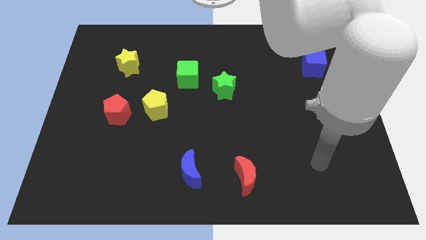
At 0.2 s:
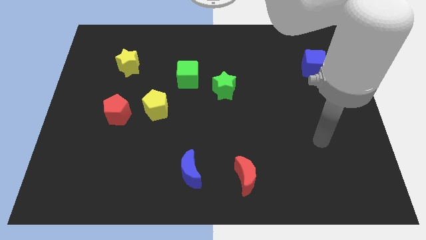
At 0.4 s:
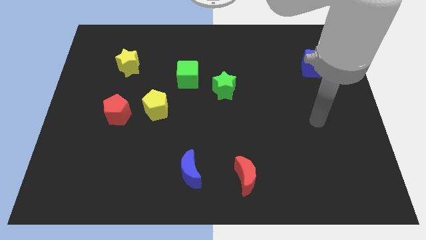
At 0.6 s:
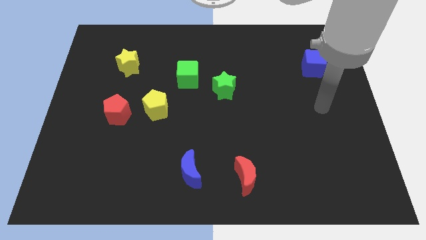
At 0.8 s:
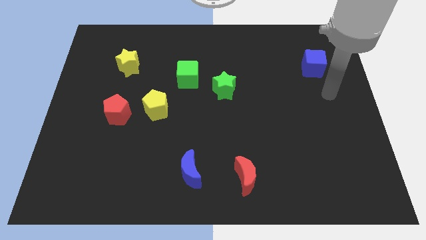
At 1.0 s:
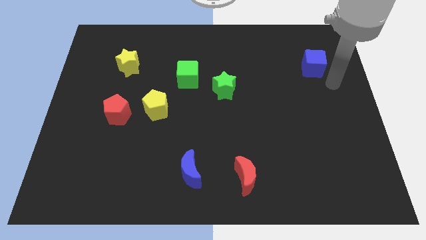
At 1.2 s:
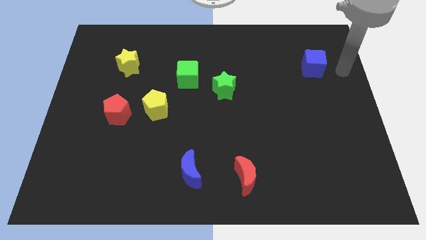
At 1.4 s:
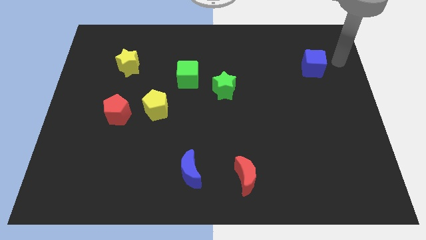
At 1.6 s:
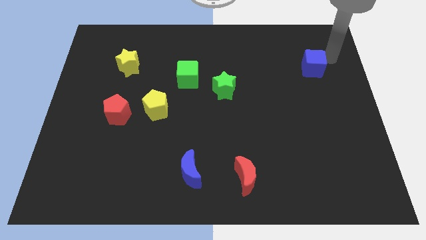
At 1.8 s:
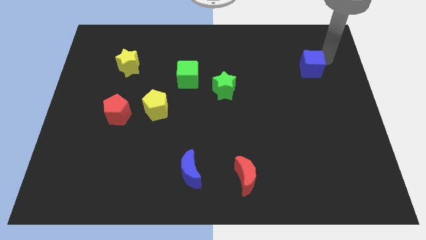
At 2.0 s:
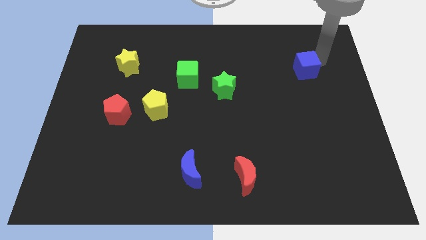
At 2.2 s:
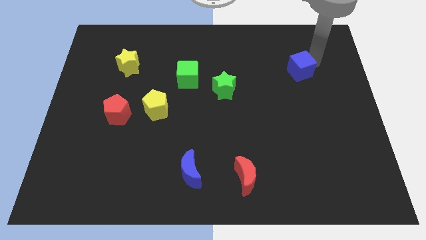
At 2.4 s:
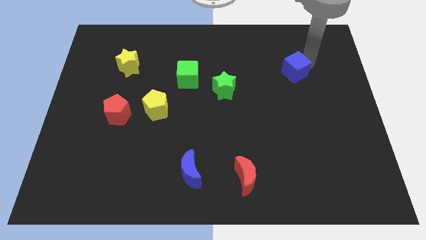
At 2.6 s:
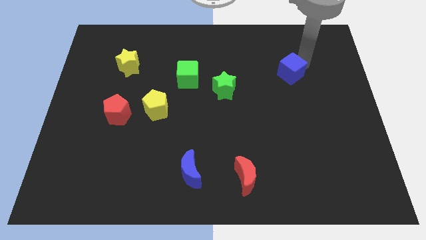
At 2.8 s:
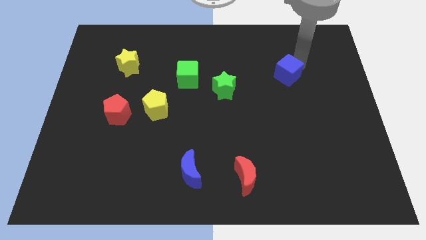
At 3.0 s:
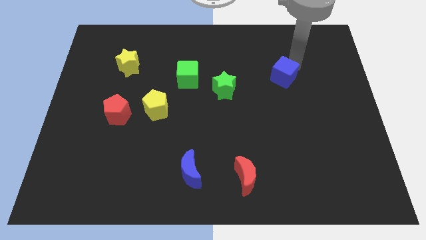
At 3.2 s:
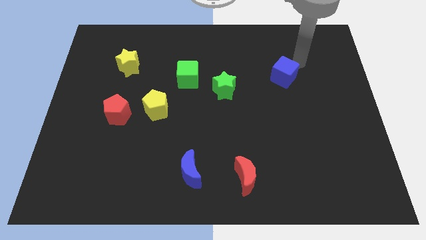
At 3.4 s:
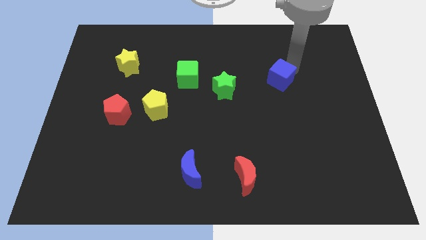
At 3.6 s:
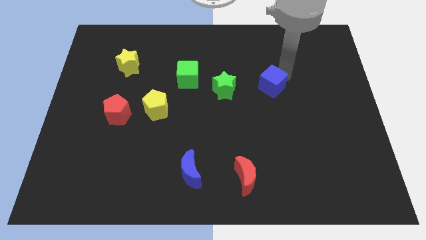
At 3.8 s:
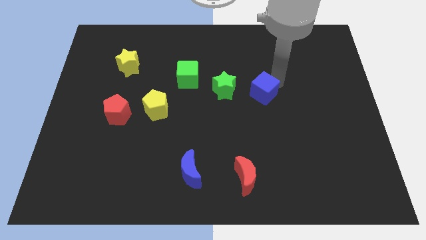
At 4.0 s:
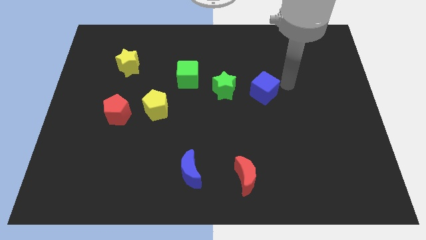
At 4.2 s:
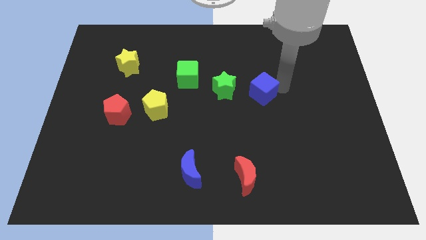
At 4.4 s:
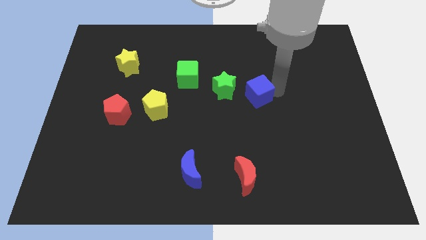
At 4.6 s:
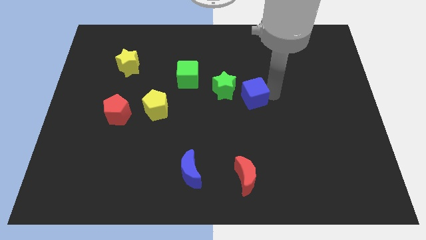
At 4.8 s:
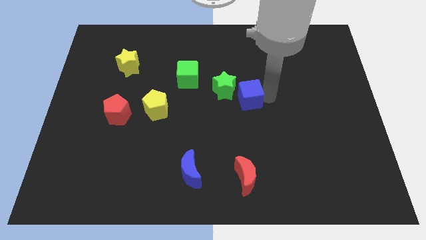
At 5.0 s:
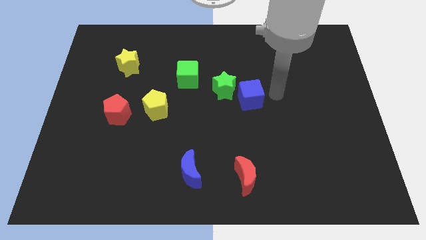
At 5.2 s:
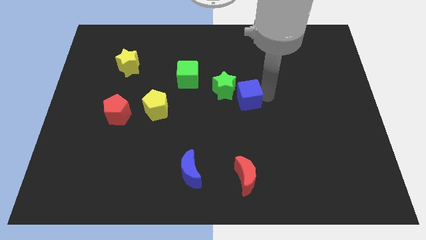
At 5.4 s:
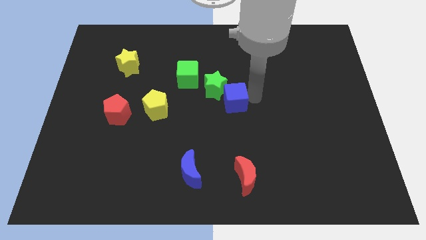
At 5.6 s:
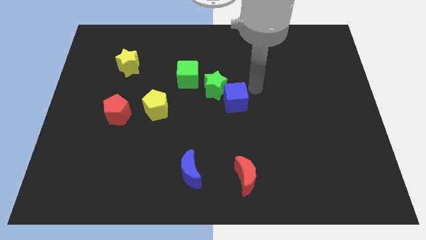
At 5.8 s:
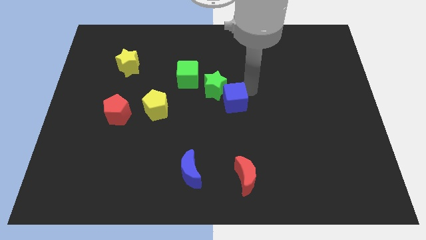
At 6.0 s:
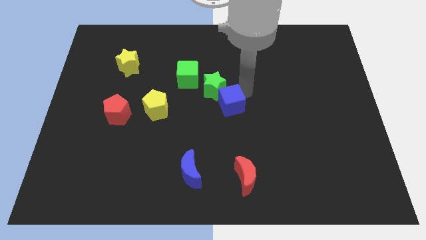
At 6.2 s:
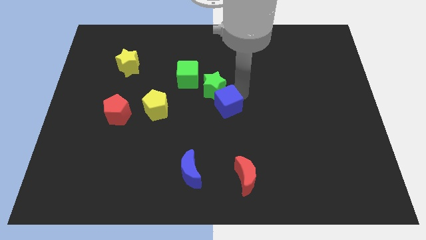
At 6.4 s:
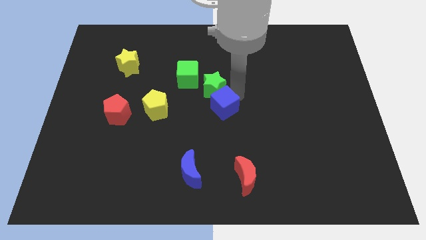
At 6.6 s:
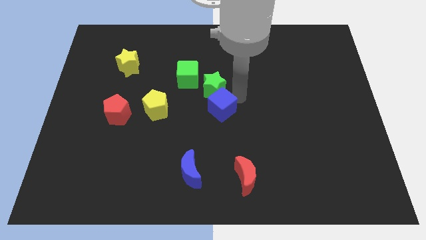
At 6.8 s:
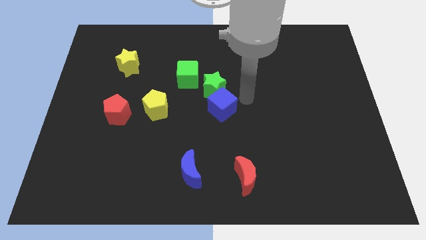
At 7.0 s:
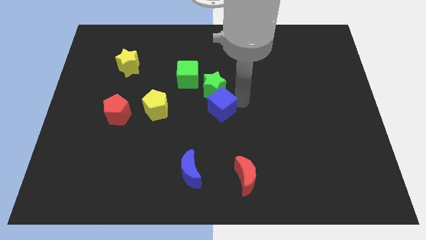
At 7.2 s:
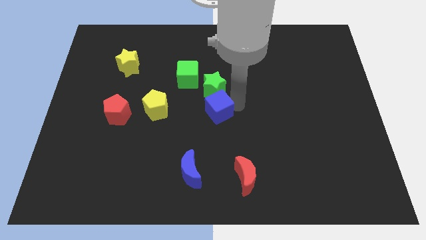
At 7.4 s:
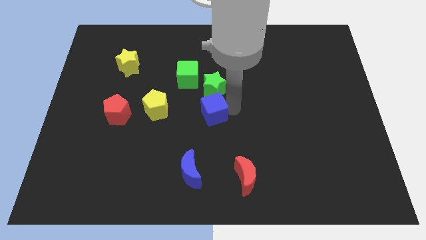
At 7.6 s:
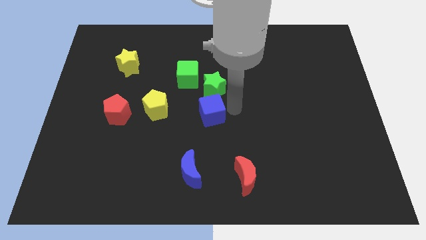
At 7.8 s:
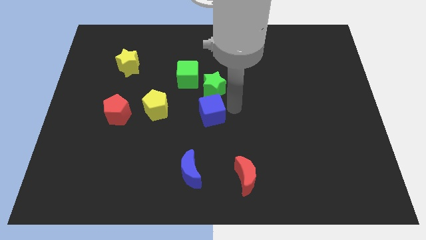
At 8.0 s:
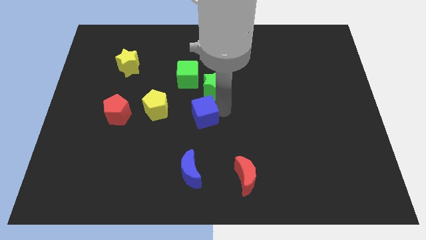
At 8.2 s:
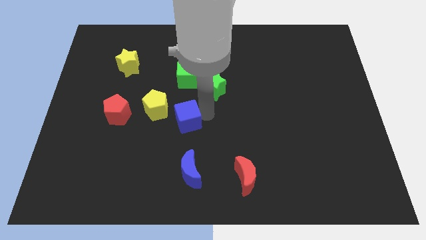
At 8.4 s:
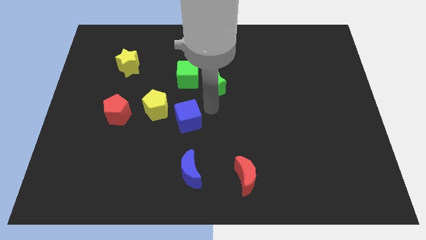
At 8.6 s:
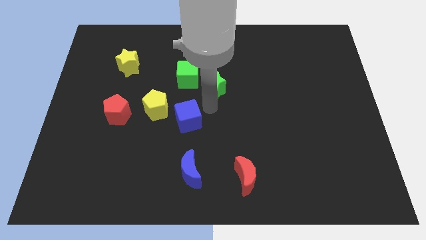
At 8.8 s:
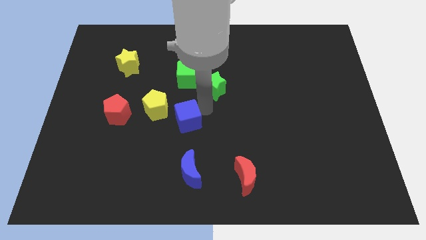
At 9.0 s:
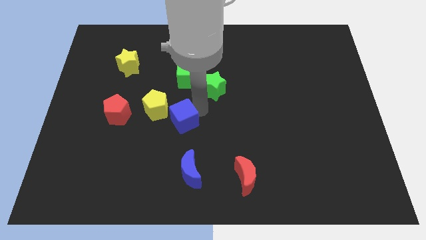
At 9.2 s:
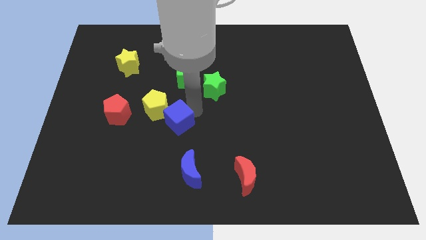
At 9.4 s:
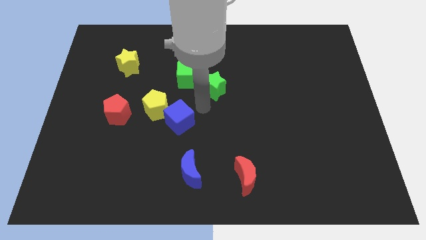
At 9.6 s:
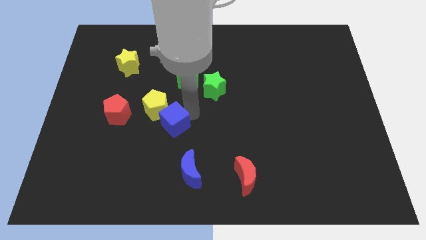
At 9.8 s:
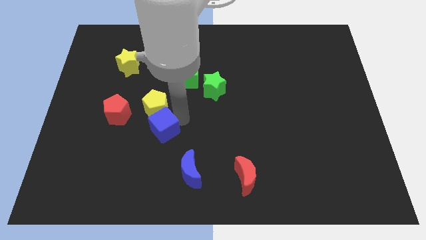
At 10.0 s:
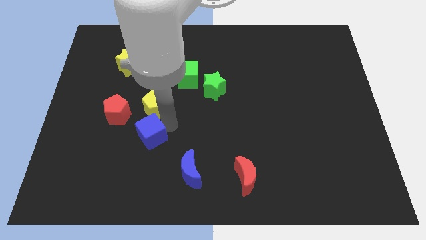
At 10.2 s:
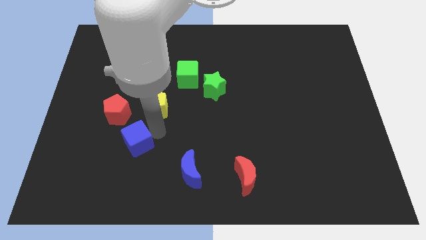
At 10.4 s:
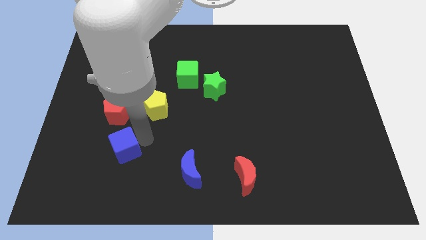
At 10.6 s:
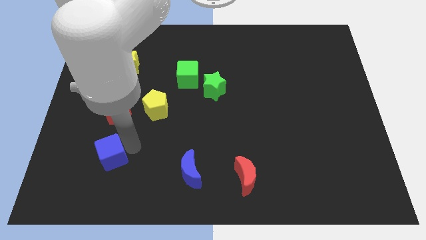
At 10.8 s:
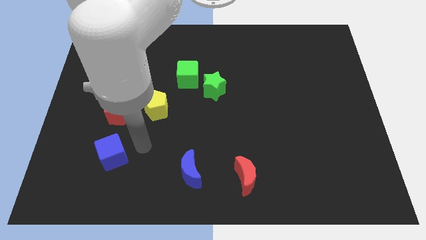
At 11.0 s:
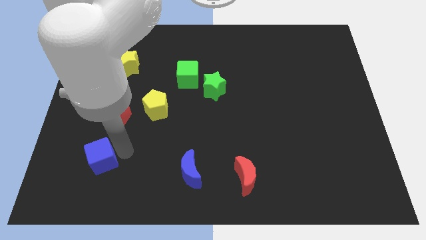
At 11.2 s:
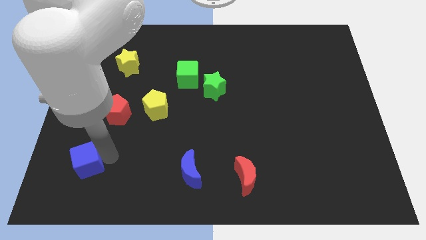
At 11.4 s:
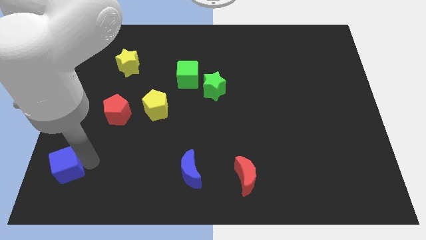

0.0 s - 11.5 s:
move the blue cube to the lower left corner
